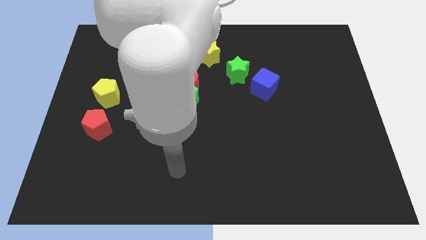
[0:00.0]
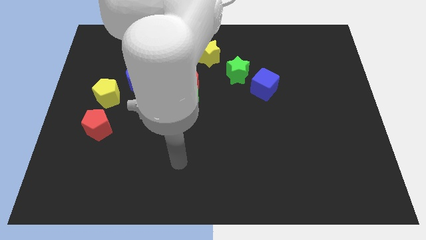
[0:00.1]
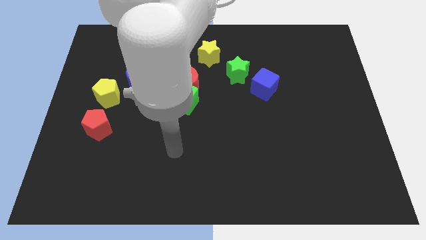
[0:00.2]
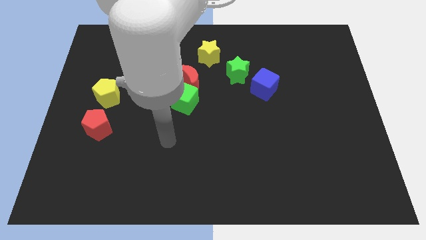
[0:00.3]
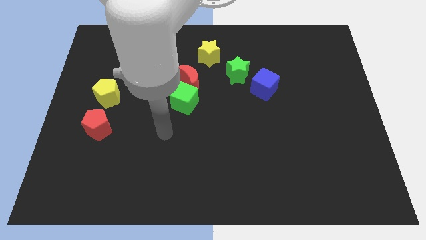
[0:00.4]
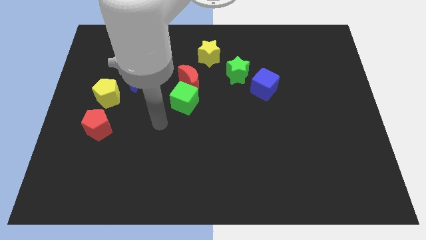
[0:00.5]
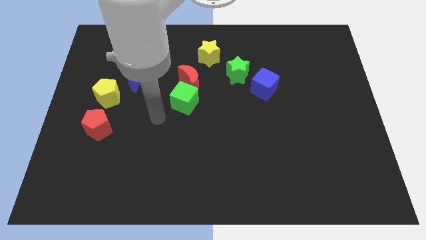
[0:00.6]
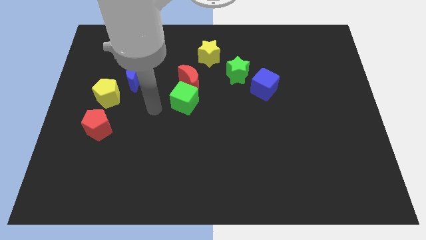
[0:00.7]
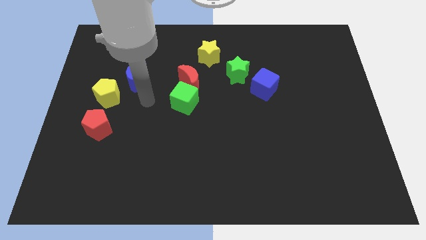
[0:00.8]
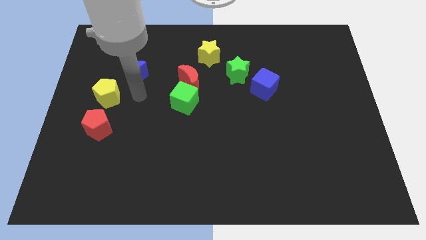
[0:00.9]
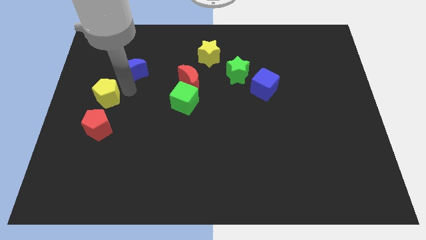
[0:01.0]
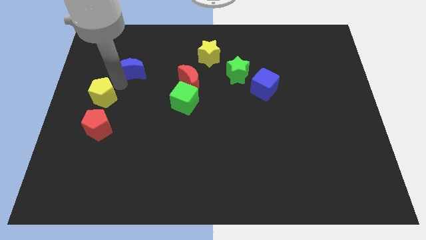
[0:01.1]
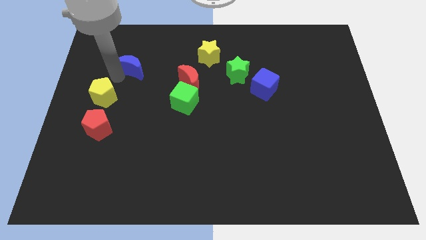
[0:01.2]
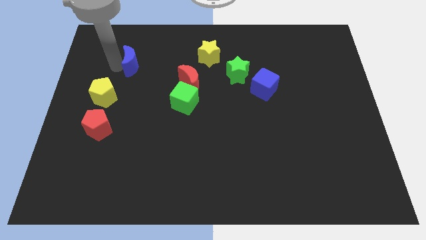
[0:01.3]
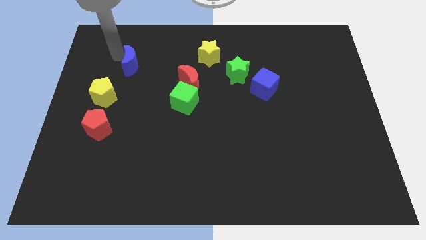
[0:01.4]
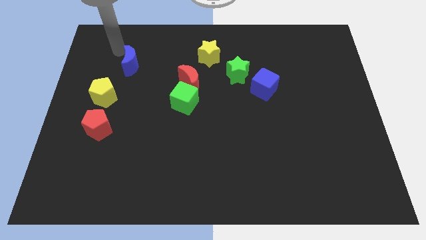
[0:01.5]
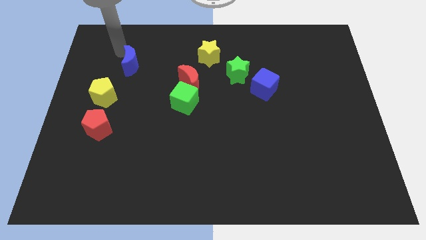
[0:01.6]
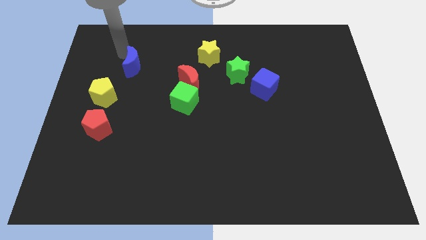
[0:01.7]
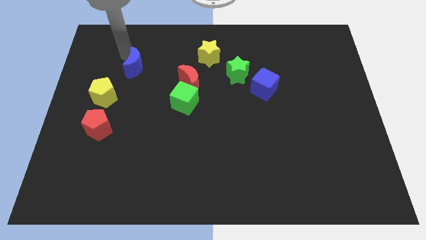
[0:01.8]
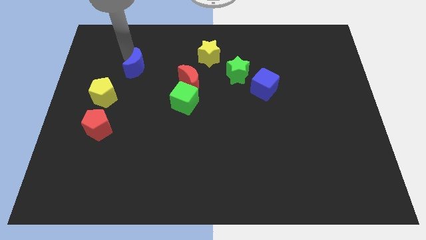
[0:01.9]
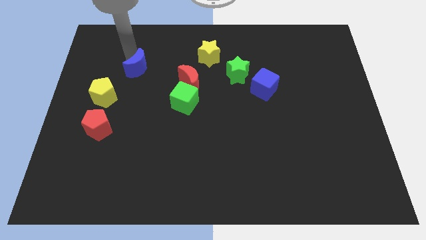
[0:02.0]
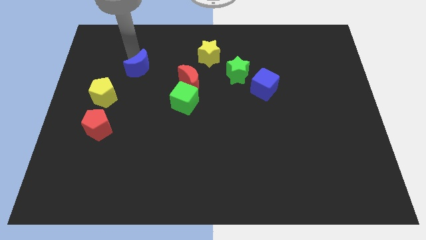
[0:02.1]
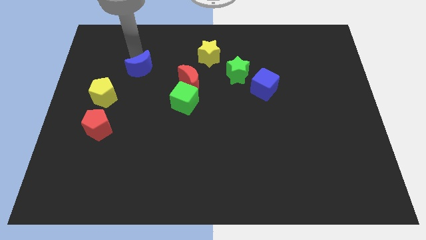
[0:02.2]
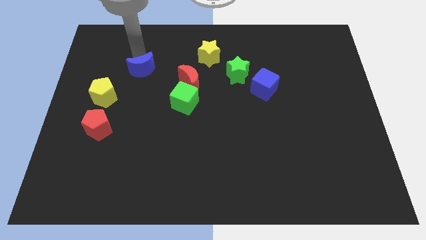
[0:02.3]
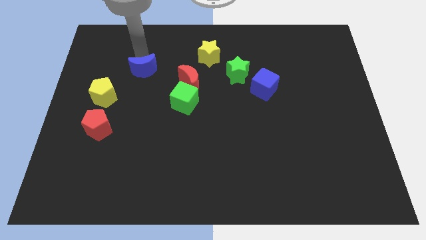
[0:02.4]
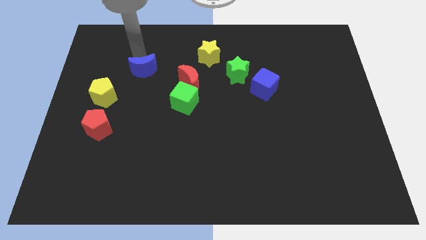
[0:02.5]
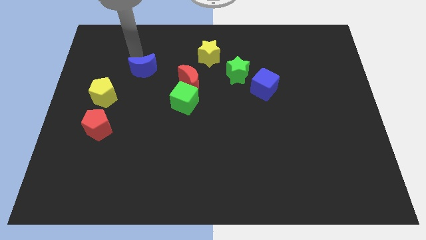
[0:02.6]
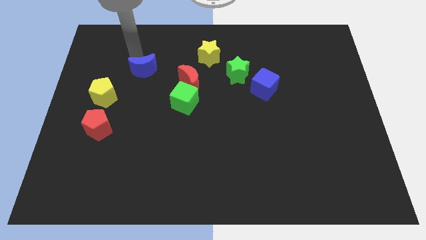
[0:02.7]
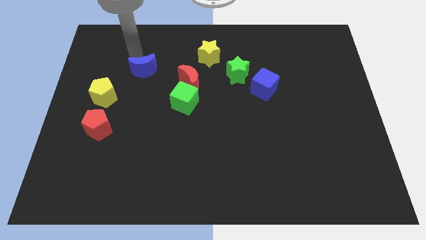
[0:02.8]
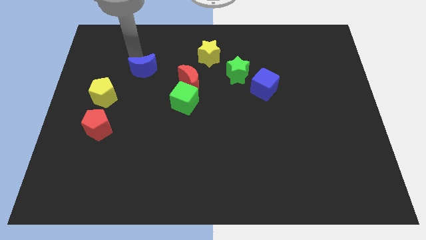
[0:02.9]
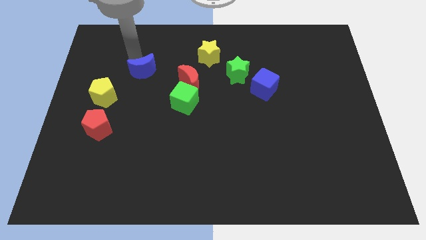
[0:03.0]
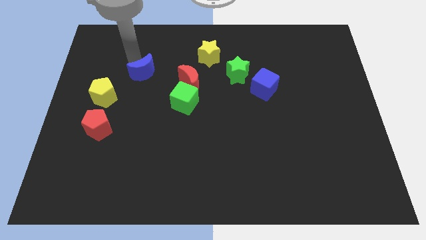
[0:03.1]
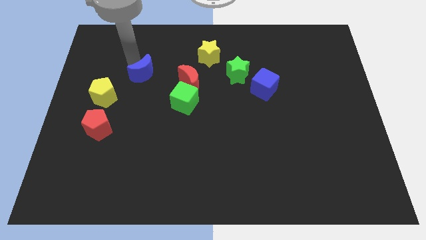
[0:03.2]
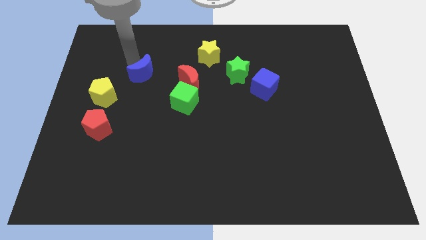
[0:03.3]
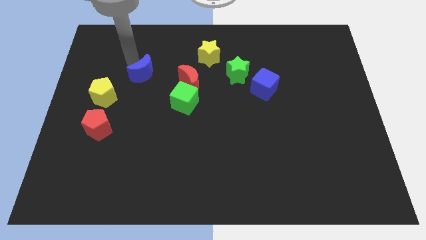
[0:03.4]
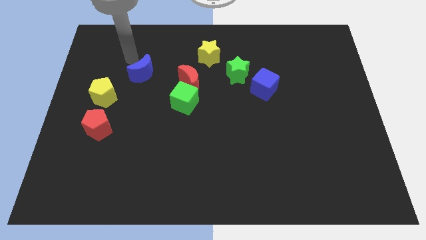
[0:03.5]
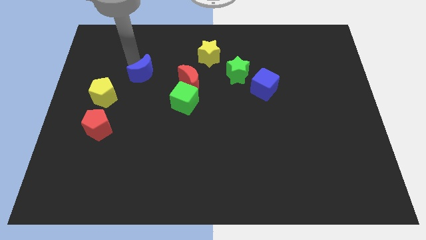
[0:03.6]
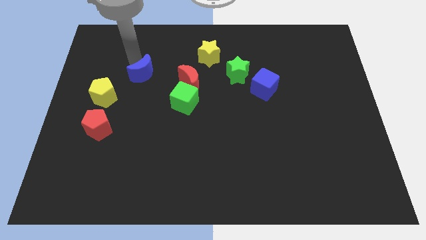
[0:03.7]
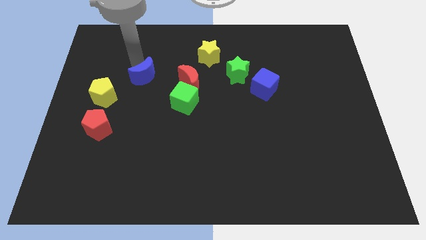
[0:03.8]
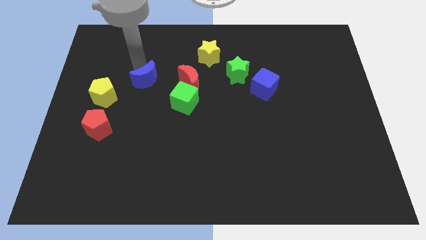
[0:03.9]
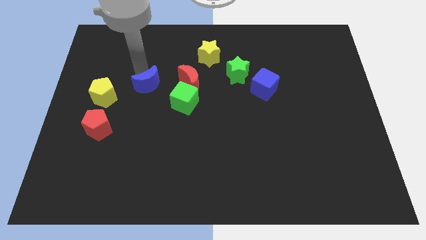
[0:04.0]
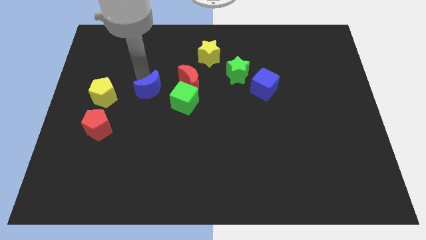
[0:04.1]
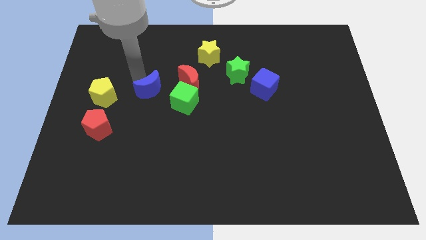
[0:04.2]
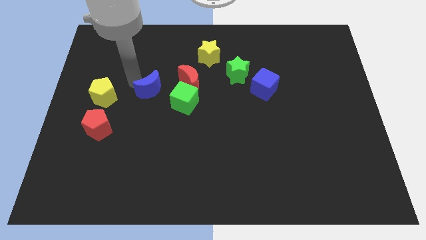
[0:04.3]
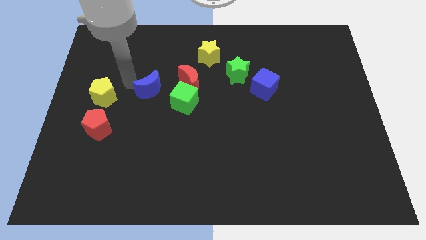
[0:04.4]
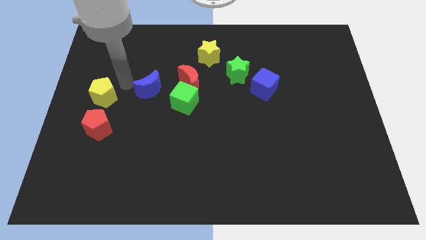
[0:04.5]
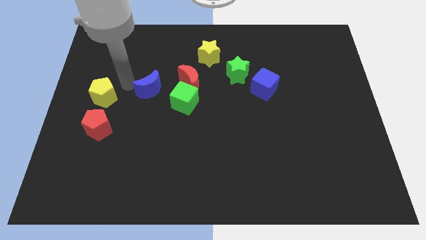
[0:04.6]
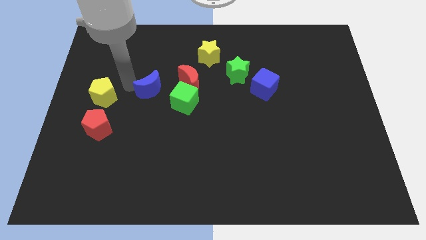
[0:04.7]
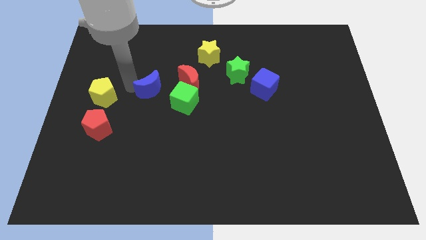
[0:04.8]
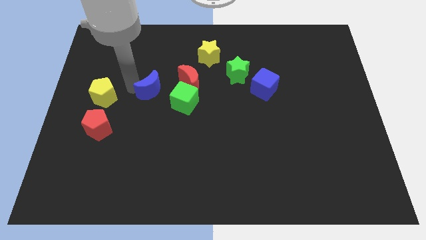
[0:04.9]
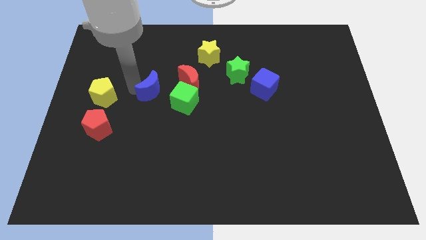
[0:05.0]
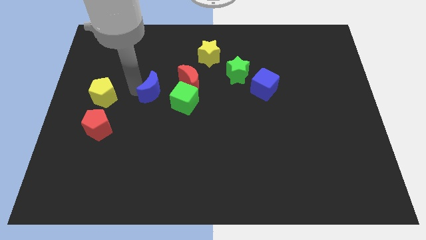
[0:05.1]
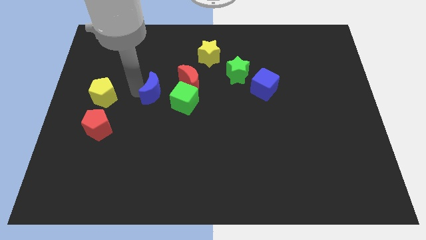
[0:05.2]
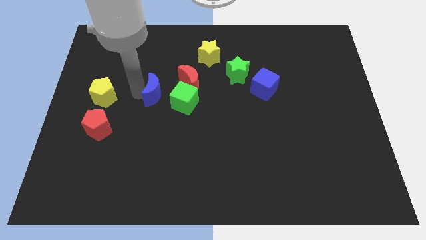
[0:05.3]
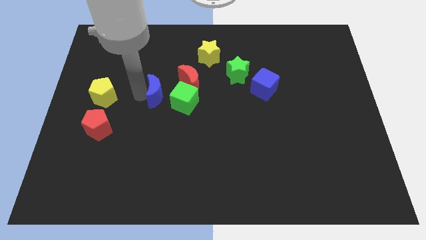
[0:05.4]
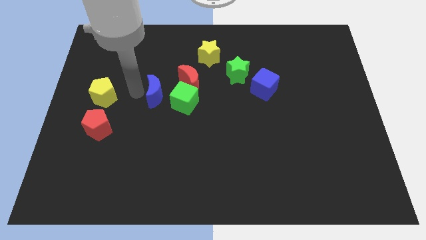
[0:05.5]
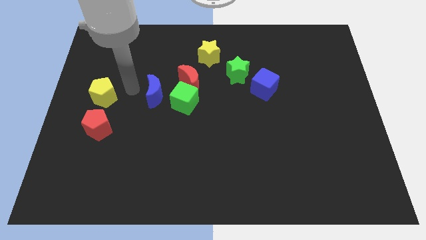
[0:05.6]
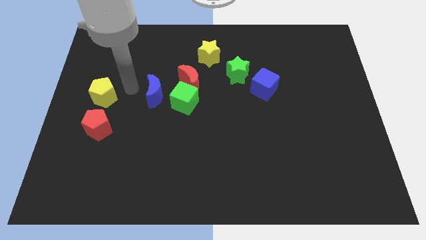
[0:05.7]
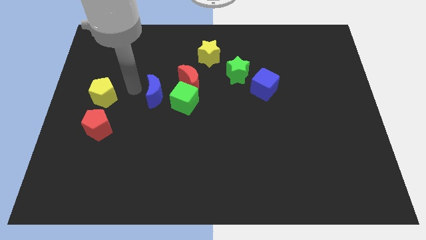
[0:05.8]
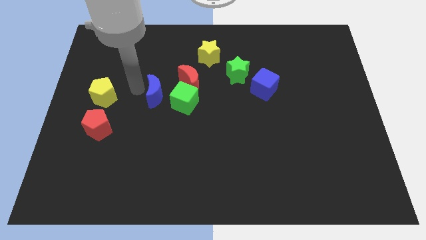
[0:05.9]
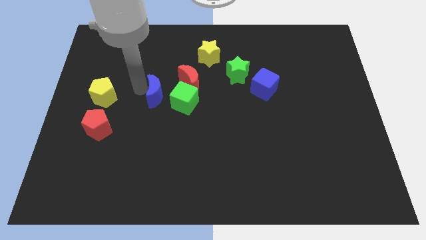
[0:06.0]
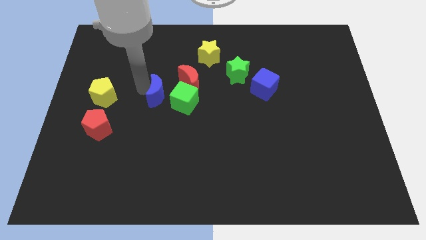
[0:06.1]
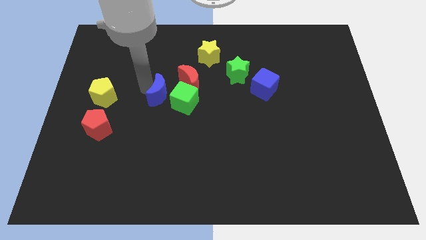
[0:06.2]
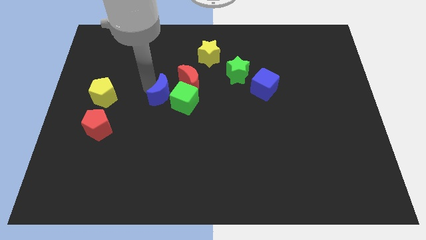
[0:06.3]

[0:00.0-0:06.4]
move the blue moon to the green cube

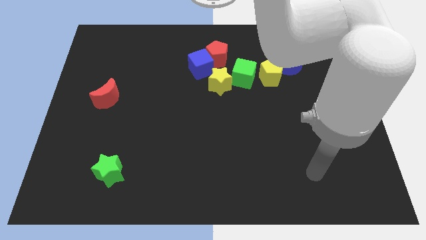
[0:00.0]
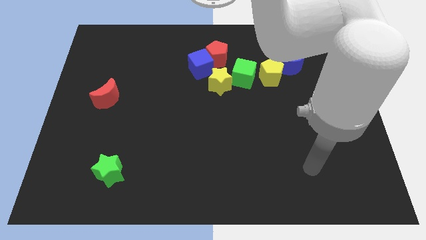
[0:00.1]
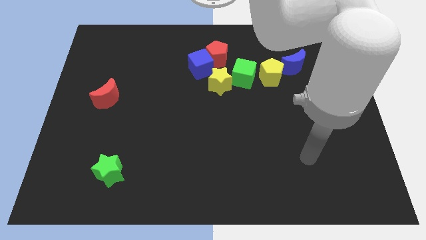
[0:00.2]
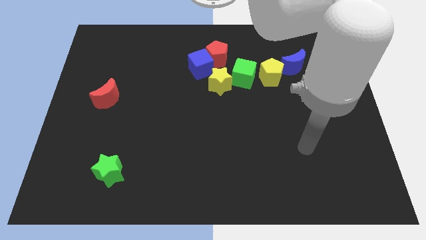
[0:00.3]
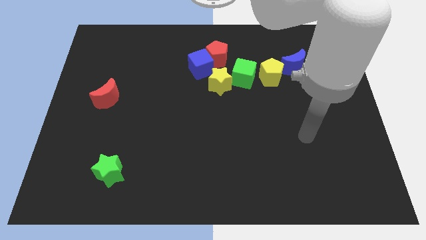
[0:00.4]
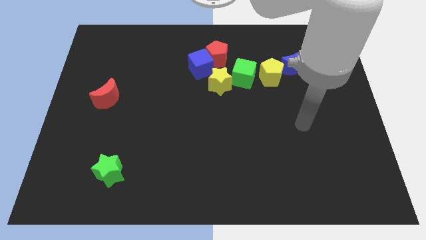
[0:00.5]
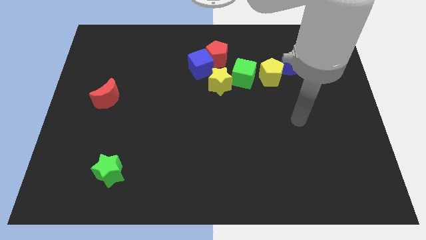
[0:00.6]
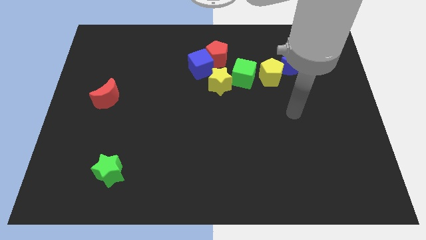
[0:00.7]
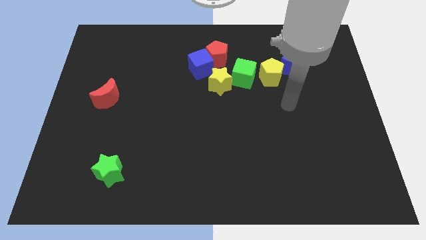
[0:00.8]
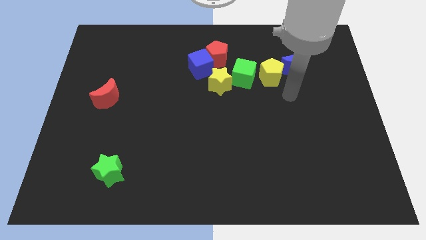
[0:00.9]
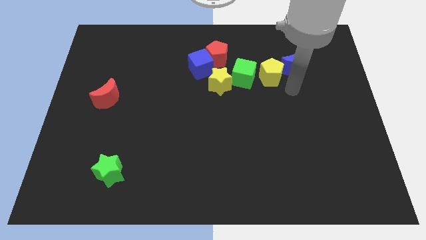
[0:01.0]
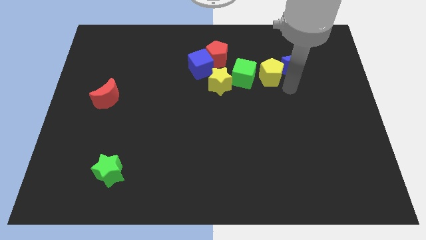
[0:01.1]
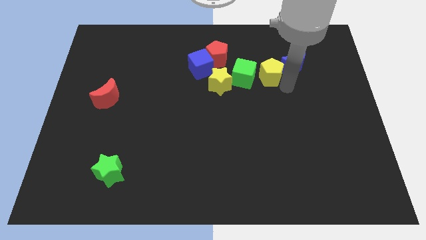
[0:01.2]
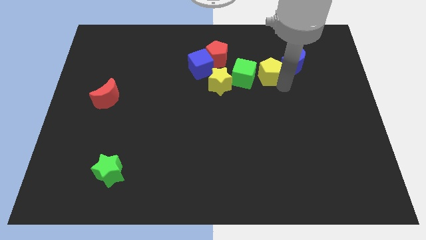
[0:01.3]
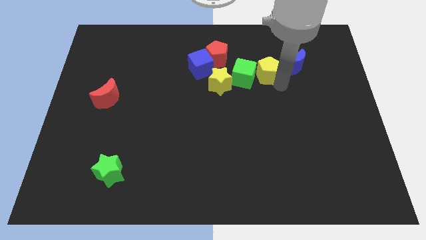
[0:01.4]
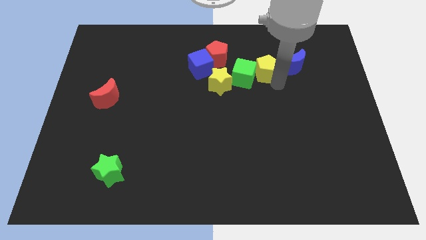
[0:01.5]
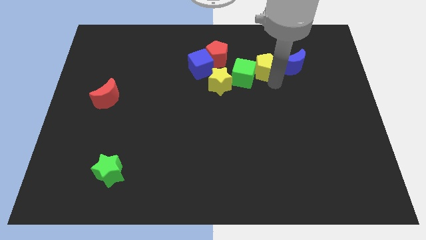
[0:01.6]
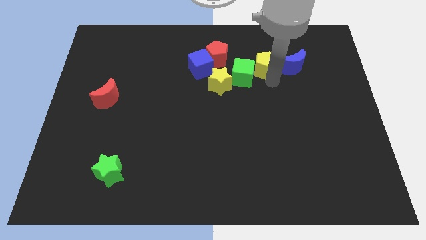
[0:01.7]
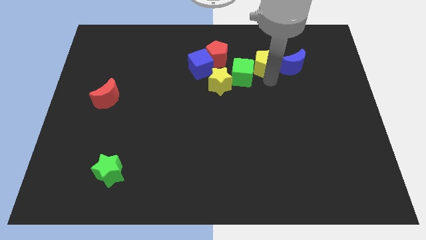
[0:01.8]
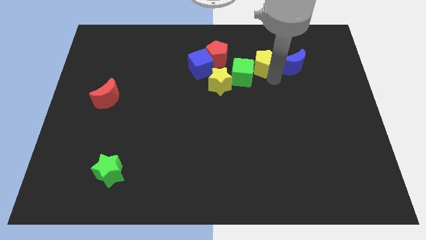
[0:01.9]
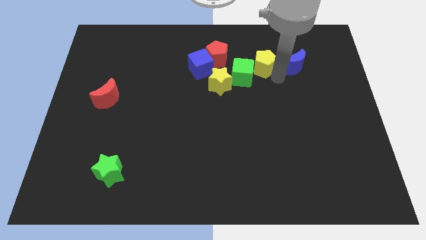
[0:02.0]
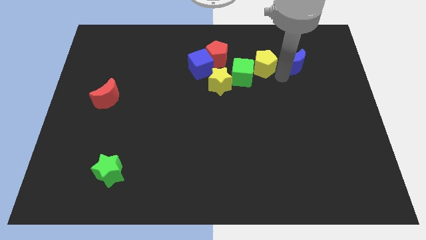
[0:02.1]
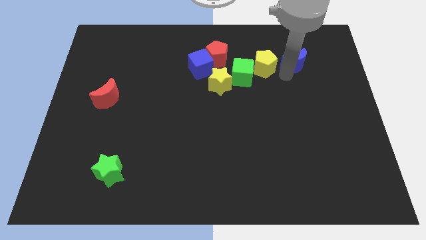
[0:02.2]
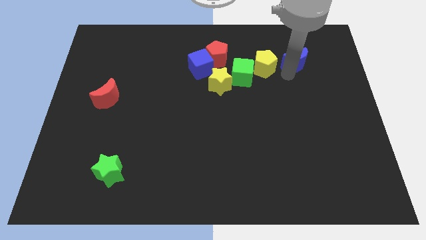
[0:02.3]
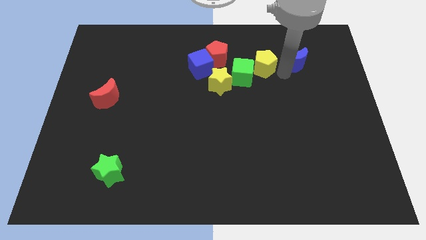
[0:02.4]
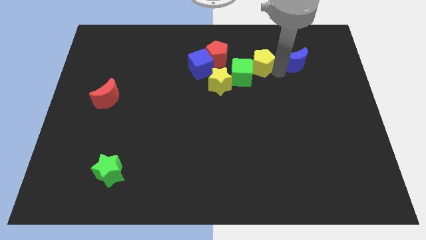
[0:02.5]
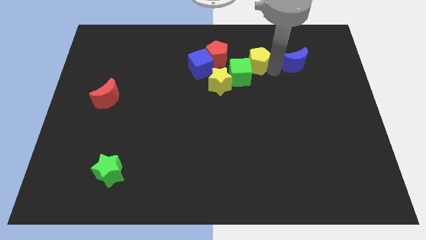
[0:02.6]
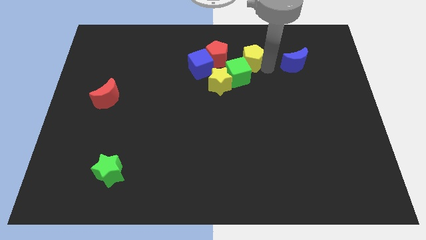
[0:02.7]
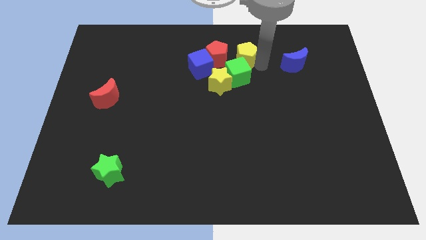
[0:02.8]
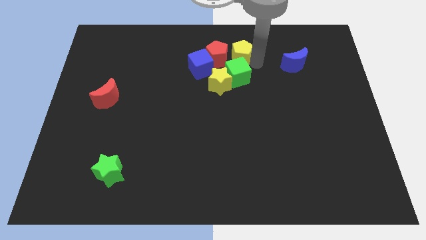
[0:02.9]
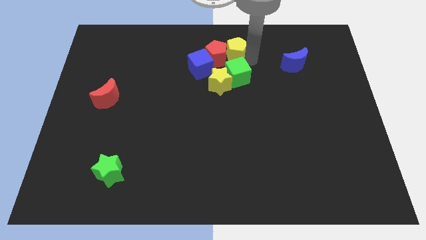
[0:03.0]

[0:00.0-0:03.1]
slide the yellow pentagon towards the red pentagon
